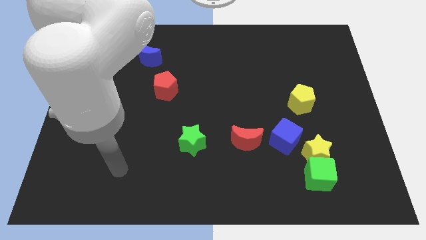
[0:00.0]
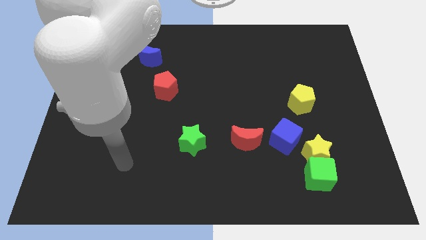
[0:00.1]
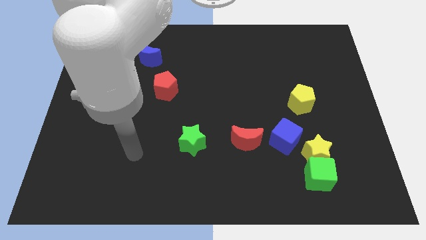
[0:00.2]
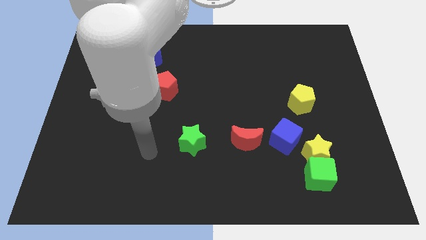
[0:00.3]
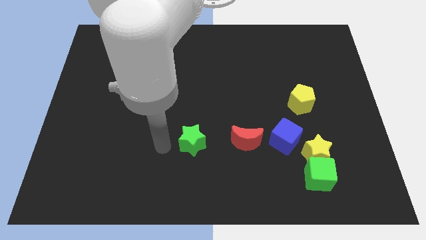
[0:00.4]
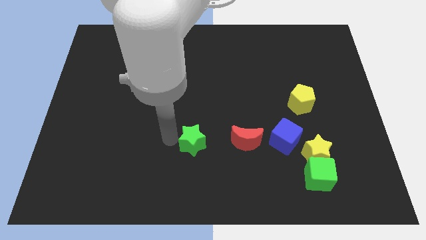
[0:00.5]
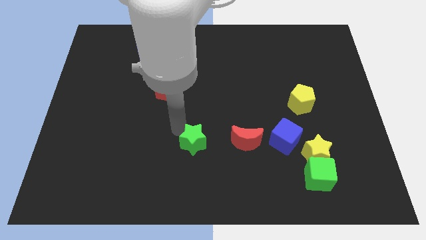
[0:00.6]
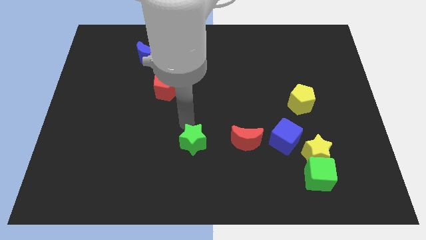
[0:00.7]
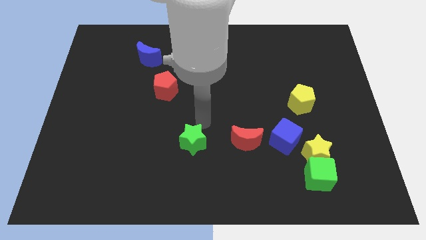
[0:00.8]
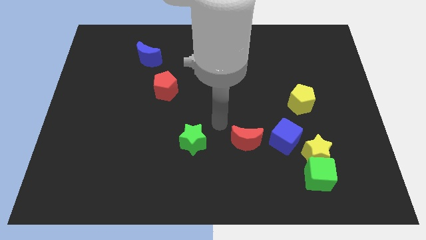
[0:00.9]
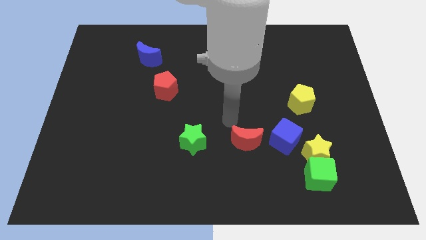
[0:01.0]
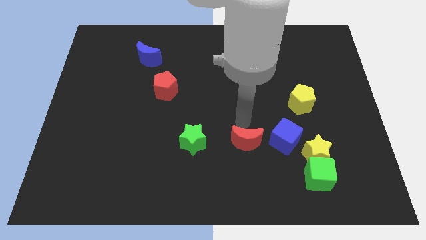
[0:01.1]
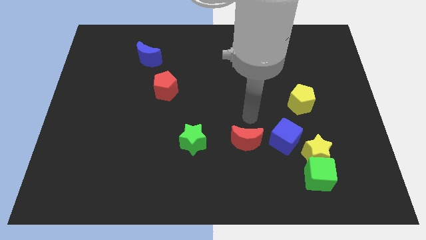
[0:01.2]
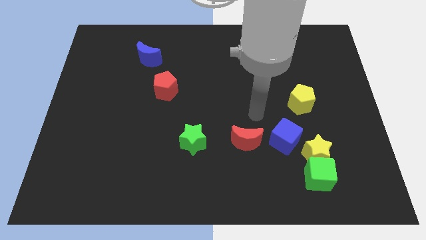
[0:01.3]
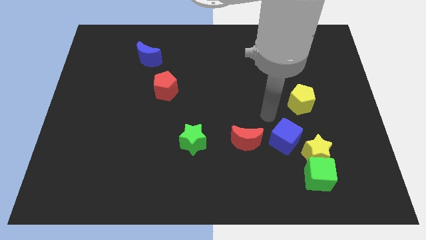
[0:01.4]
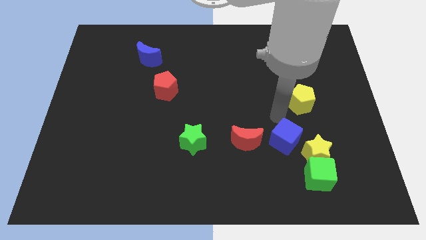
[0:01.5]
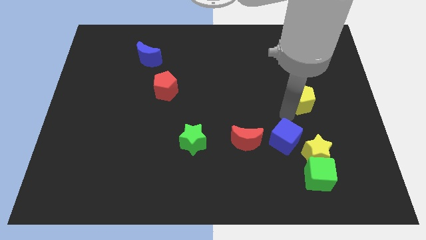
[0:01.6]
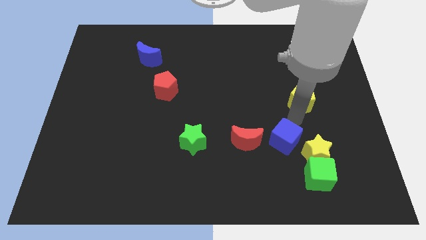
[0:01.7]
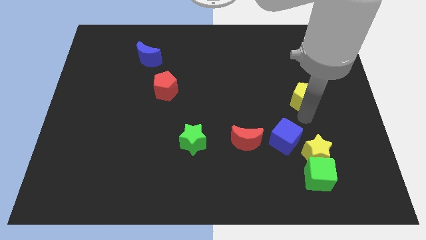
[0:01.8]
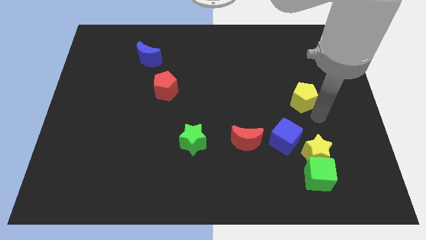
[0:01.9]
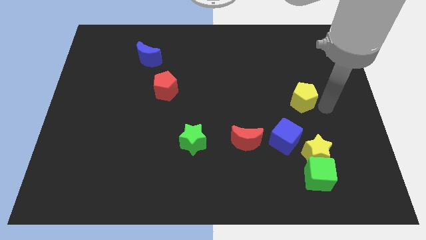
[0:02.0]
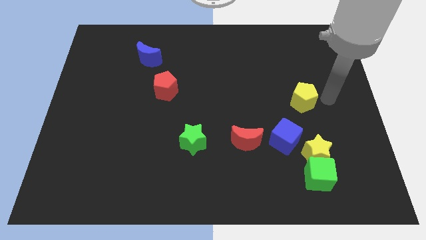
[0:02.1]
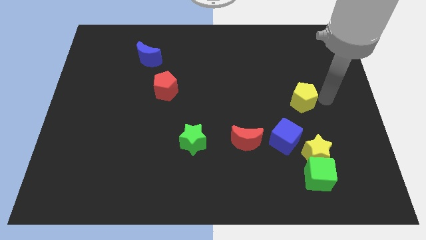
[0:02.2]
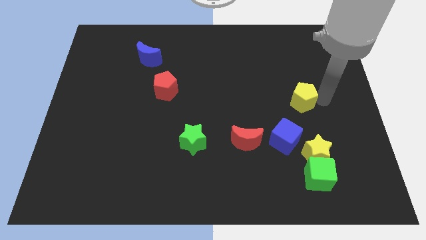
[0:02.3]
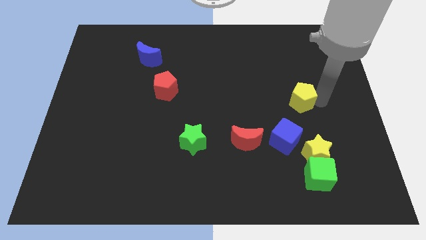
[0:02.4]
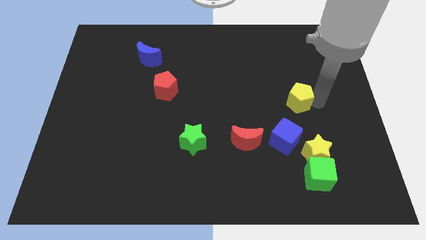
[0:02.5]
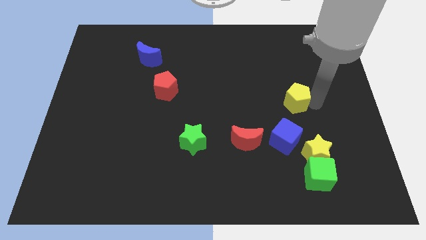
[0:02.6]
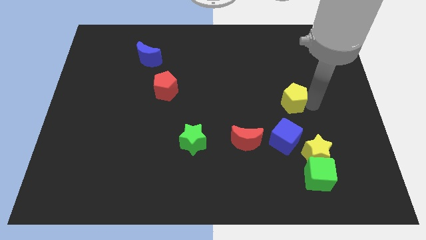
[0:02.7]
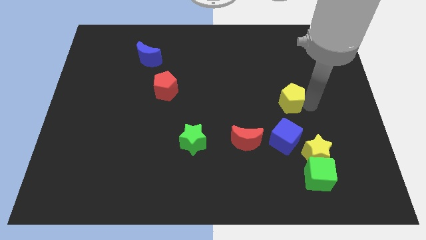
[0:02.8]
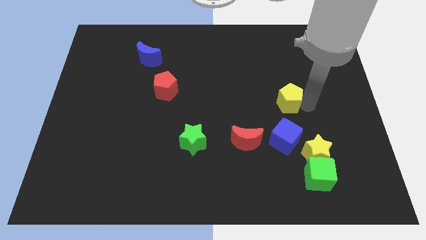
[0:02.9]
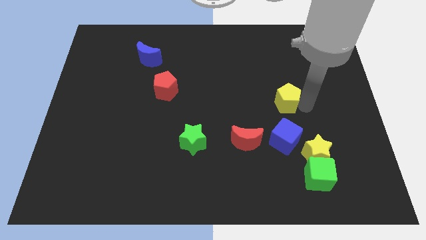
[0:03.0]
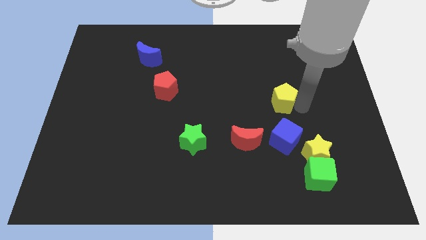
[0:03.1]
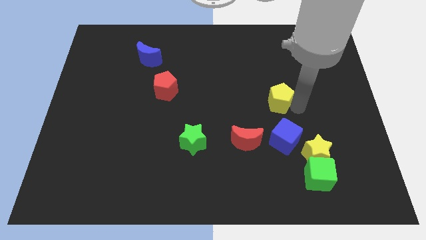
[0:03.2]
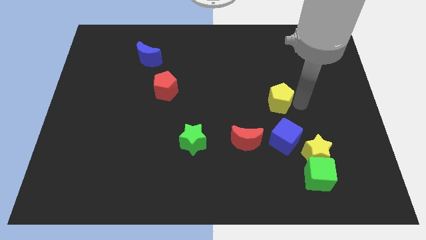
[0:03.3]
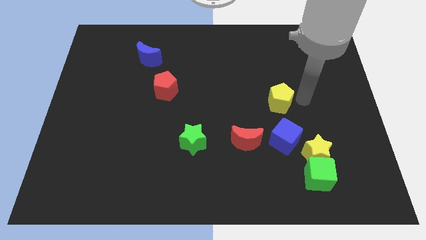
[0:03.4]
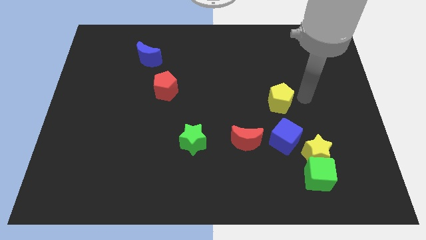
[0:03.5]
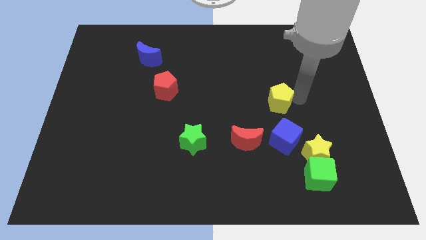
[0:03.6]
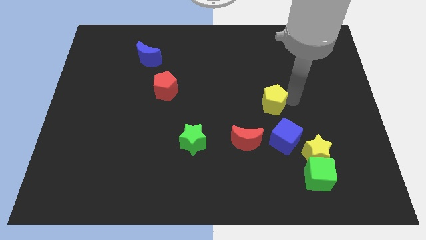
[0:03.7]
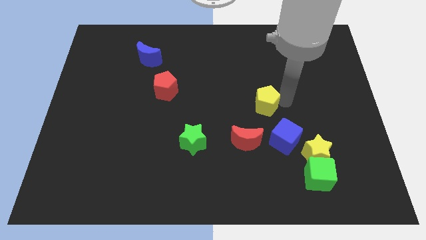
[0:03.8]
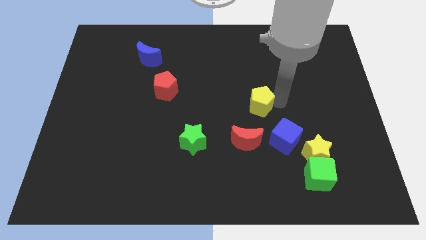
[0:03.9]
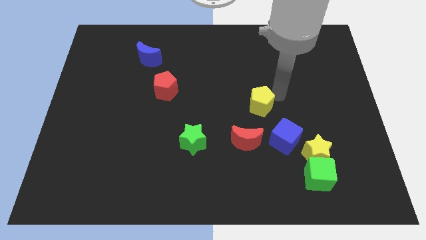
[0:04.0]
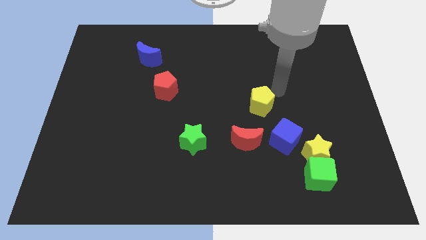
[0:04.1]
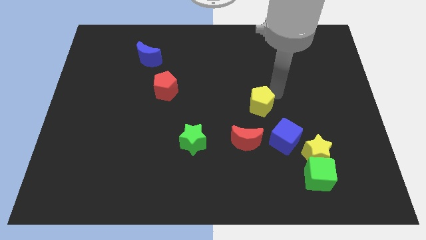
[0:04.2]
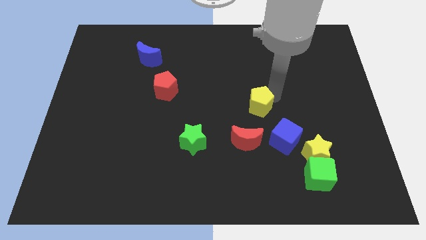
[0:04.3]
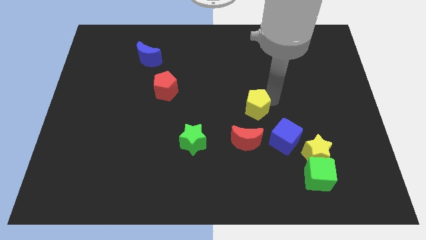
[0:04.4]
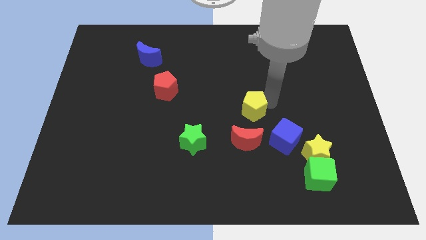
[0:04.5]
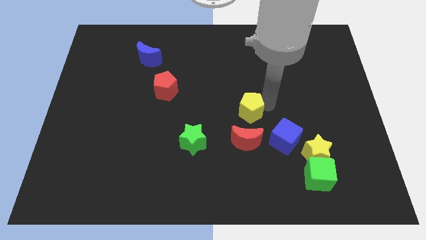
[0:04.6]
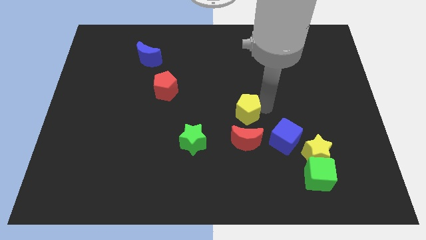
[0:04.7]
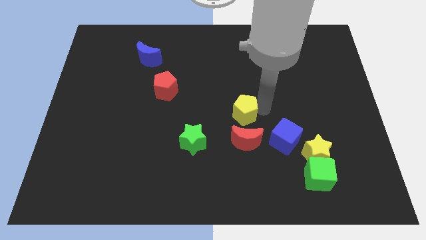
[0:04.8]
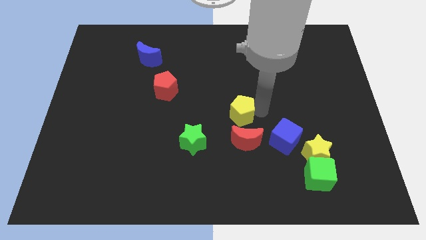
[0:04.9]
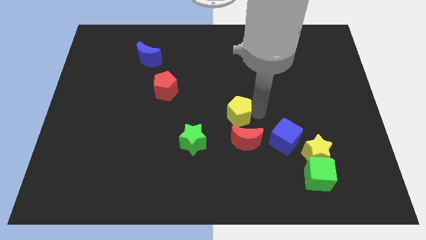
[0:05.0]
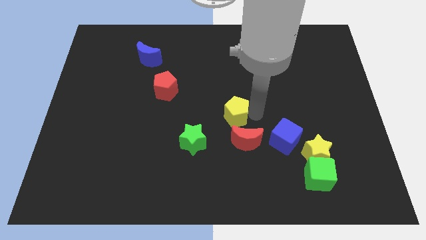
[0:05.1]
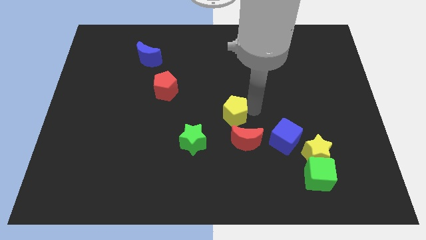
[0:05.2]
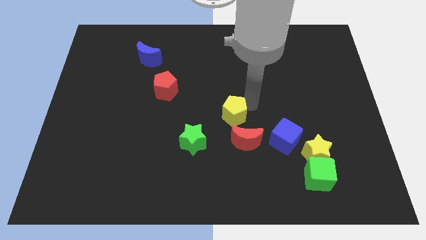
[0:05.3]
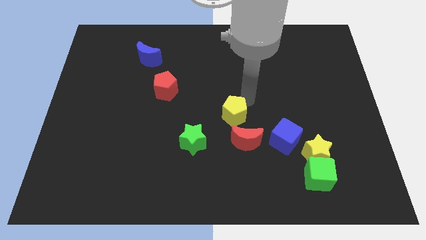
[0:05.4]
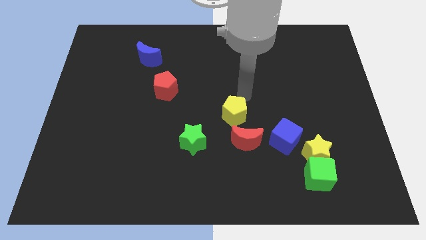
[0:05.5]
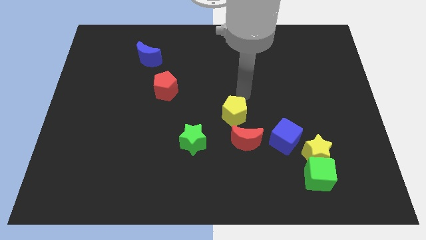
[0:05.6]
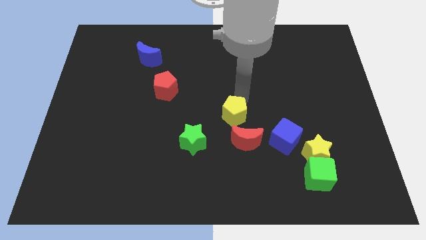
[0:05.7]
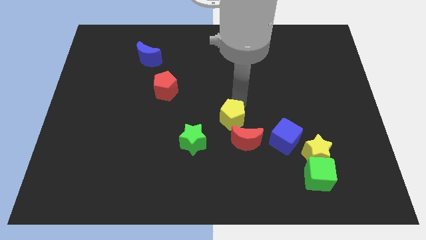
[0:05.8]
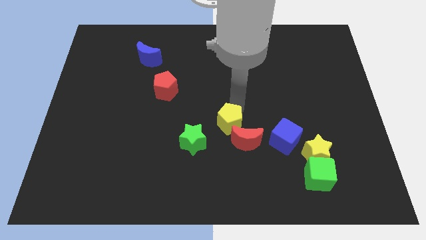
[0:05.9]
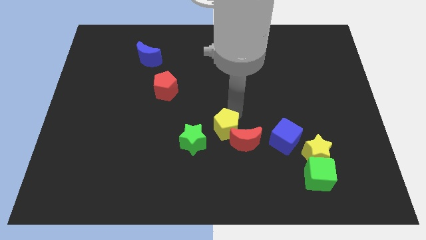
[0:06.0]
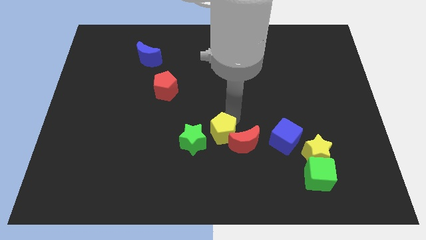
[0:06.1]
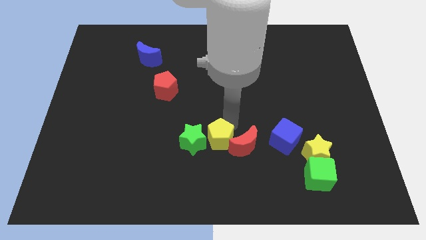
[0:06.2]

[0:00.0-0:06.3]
put the yellow pentagon towards the green star

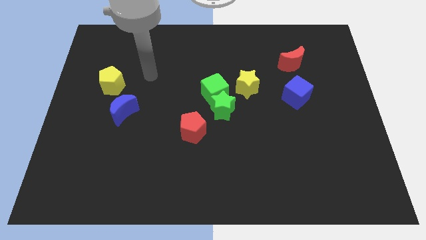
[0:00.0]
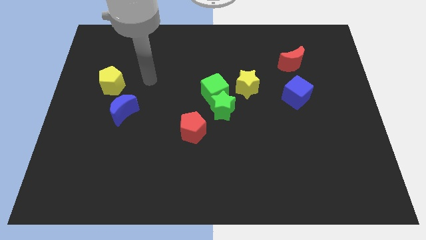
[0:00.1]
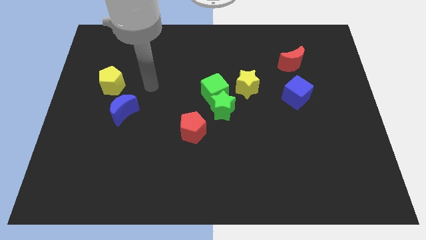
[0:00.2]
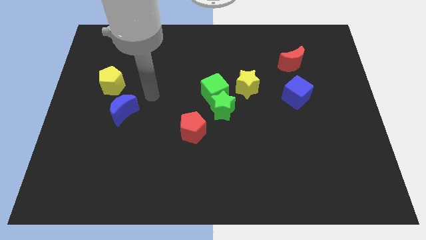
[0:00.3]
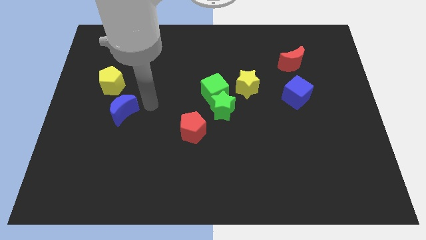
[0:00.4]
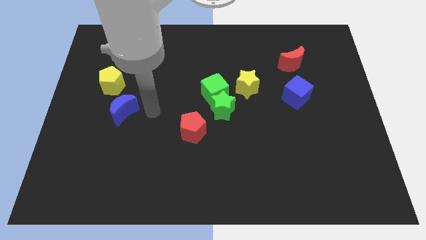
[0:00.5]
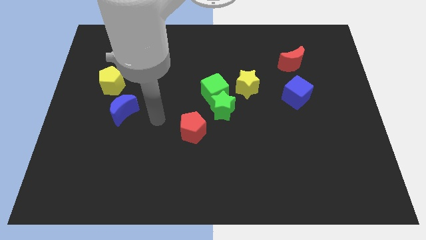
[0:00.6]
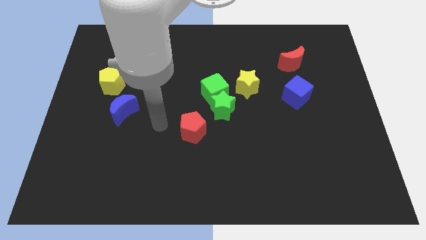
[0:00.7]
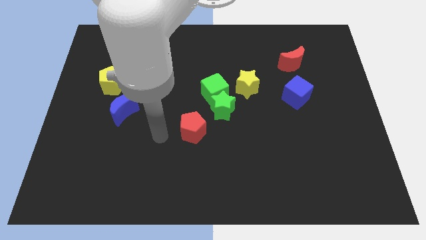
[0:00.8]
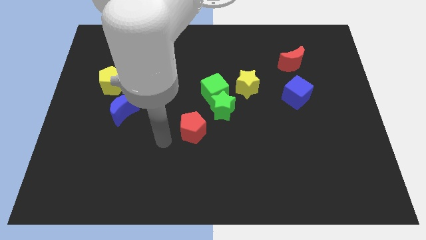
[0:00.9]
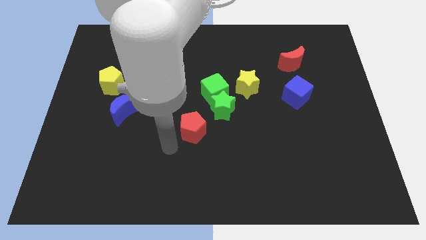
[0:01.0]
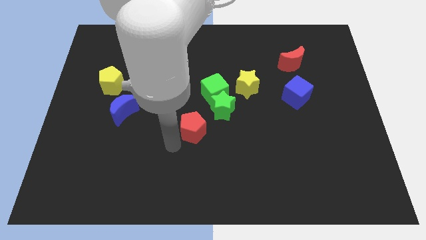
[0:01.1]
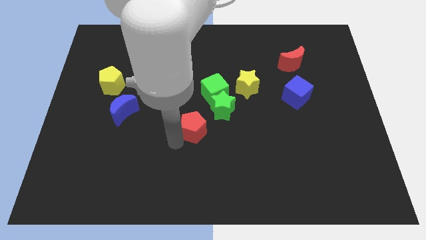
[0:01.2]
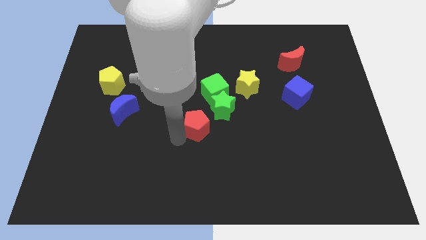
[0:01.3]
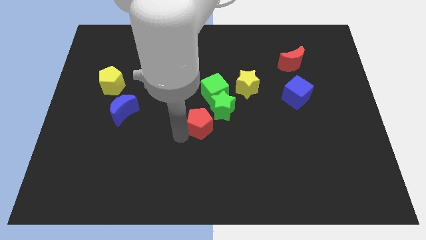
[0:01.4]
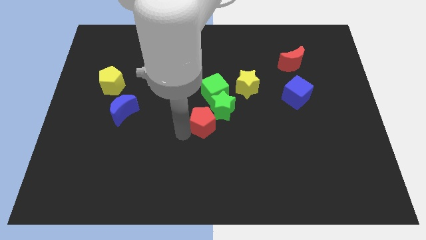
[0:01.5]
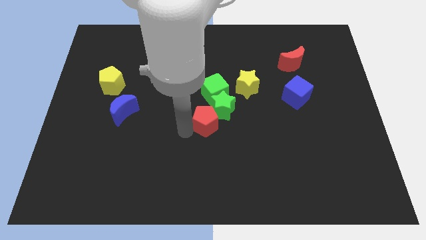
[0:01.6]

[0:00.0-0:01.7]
push the red pentagon towards the green star
